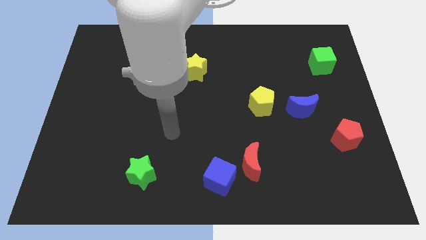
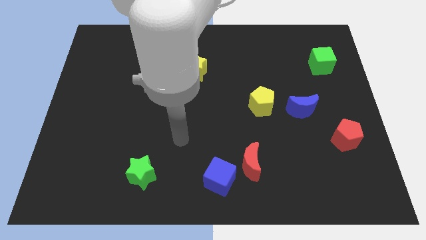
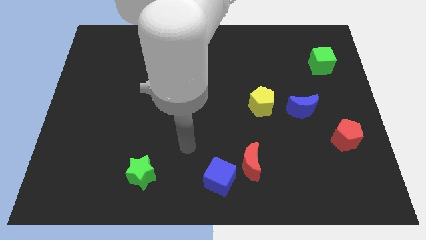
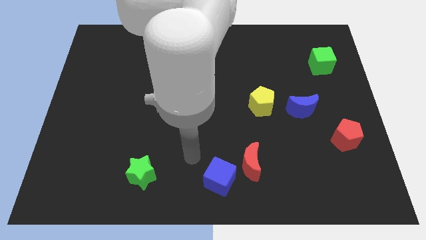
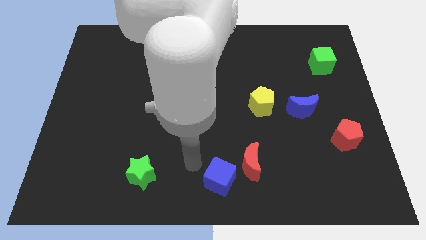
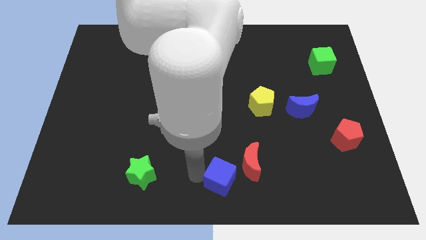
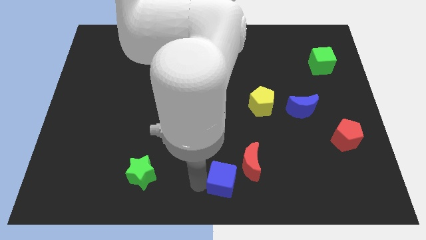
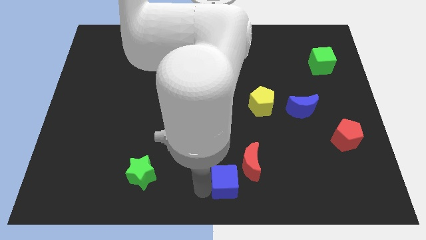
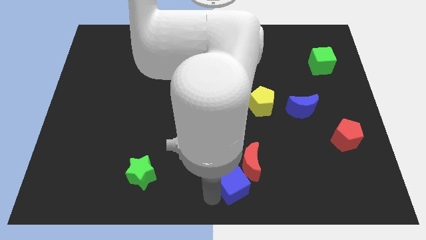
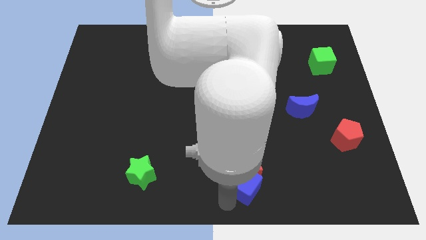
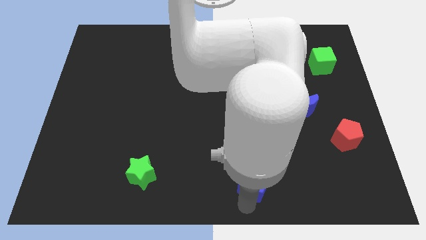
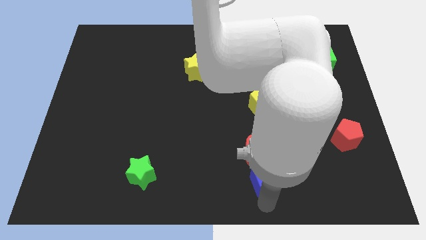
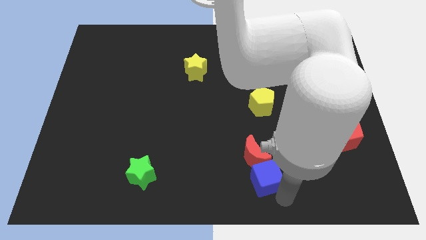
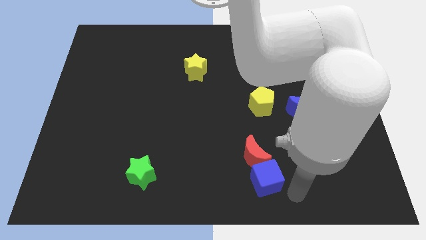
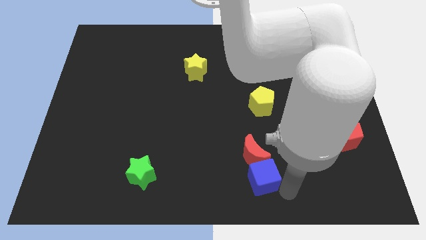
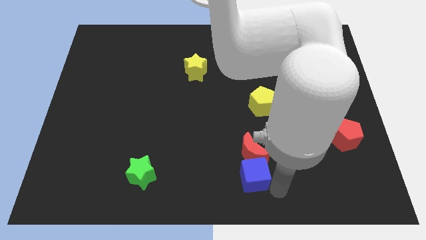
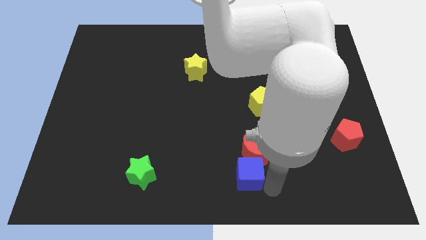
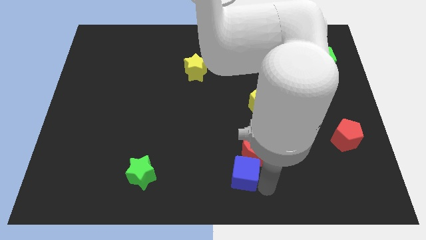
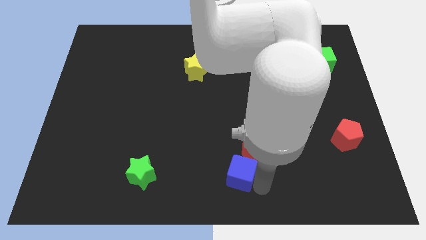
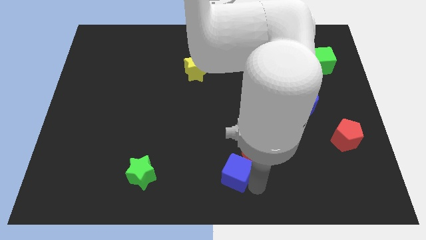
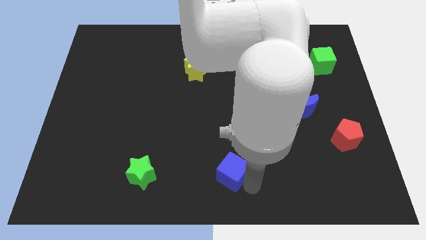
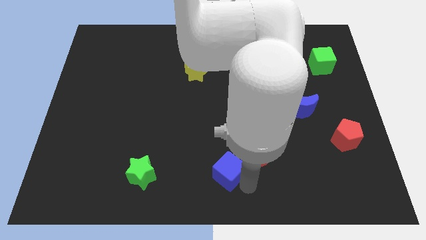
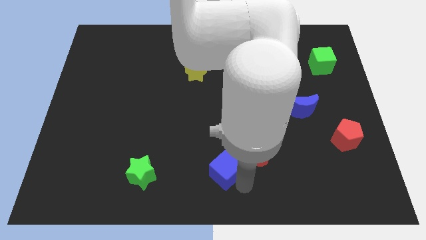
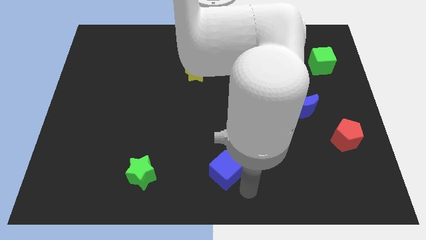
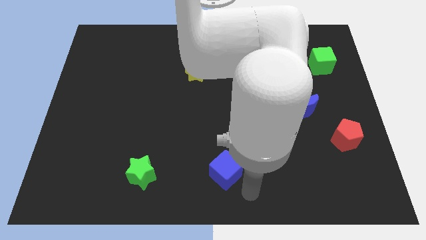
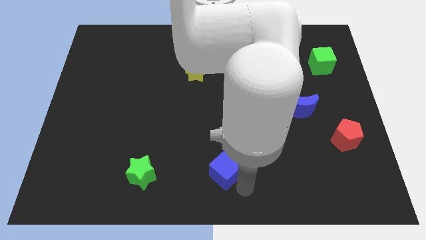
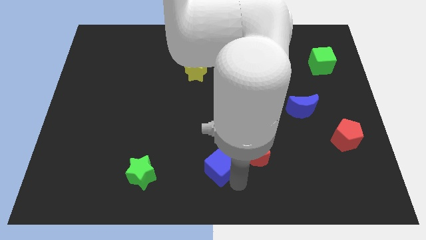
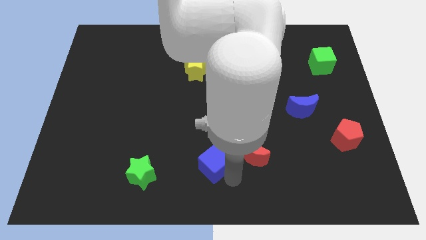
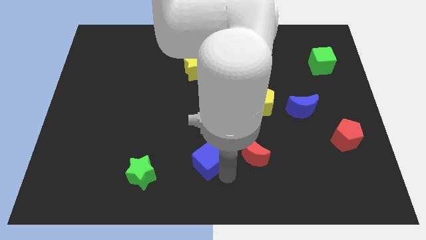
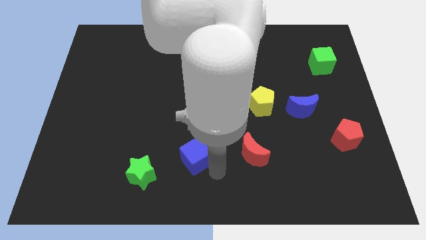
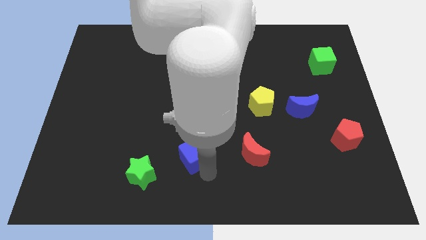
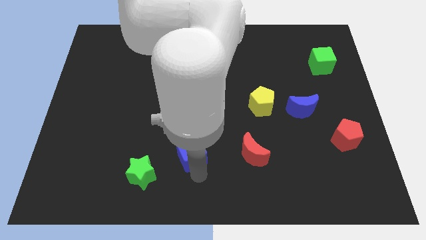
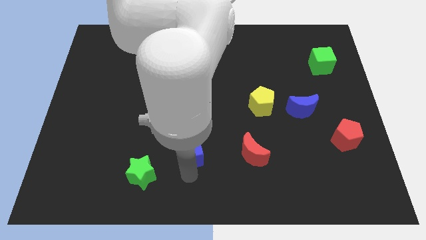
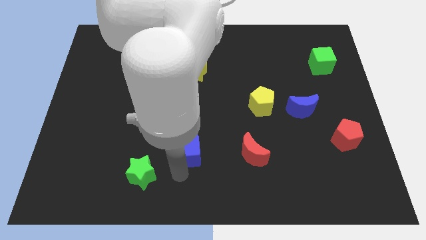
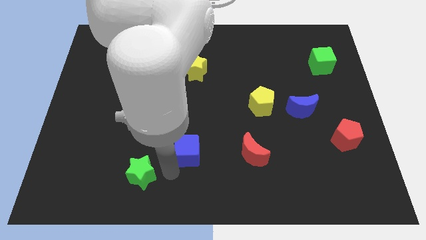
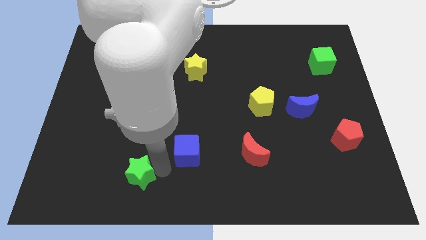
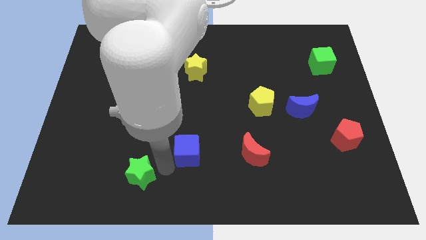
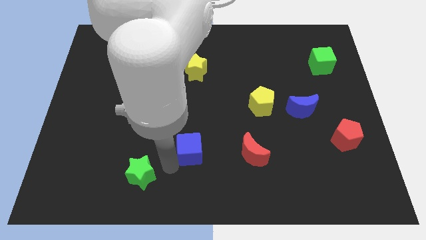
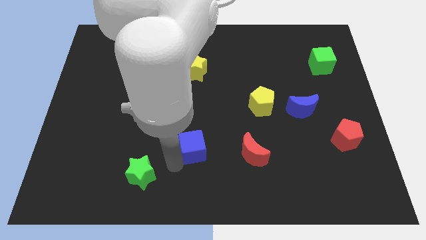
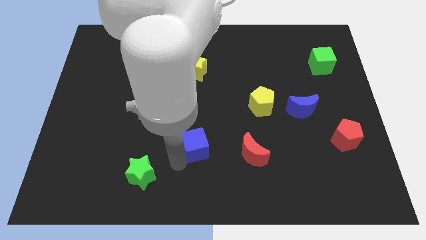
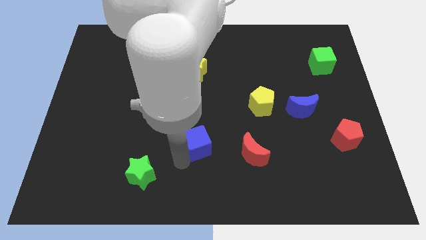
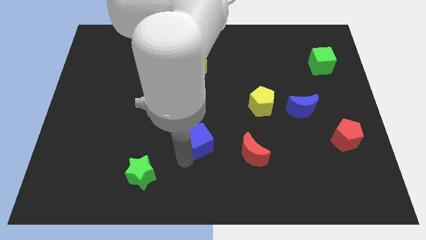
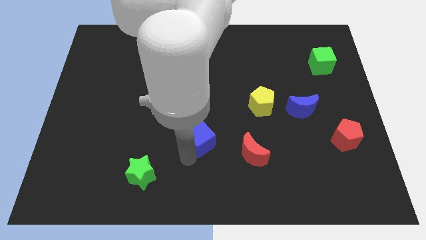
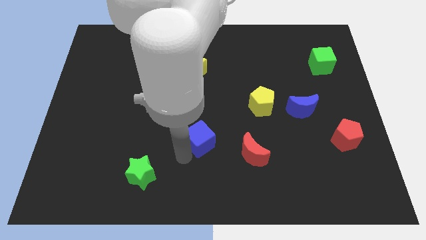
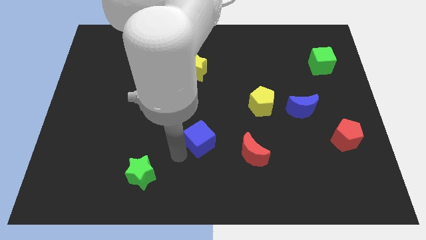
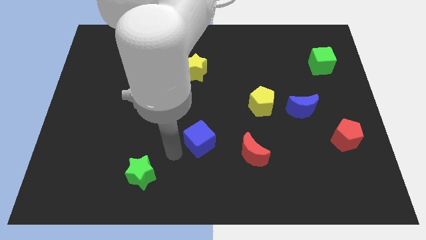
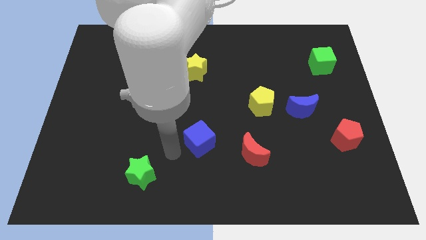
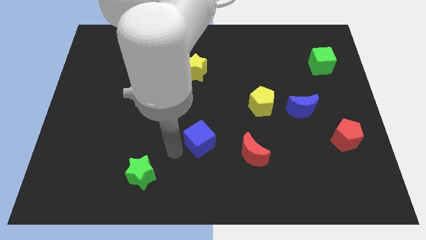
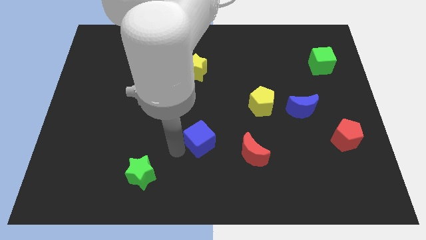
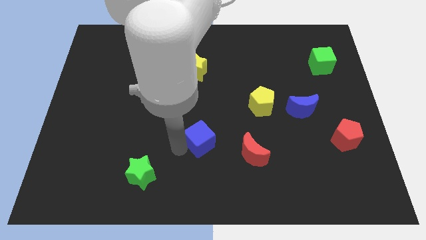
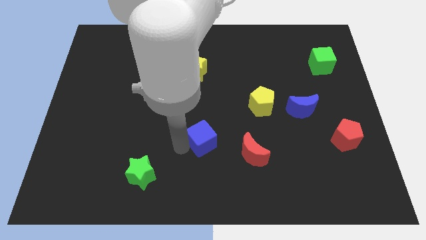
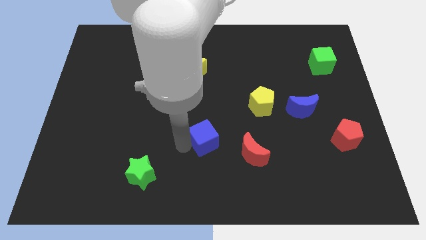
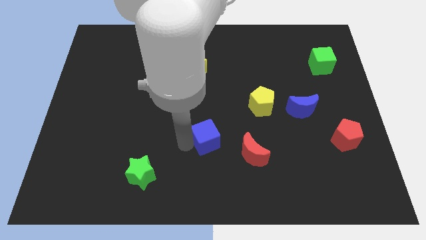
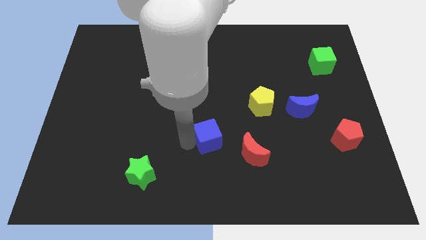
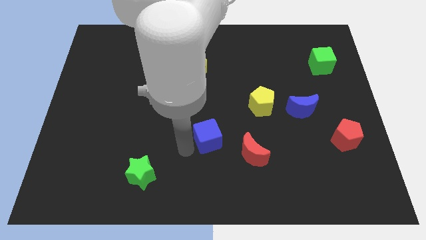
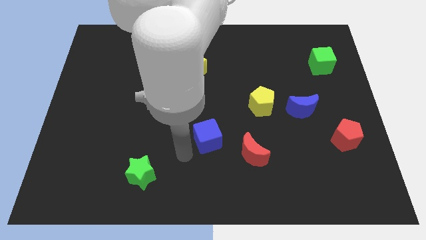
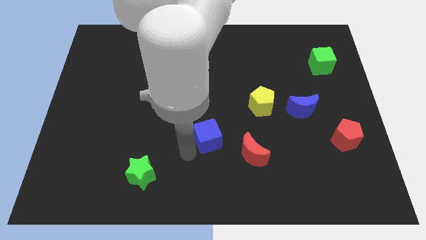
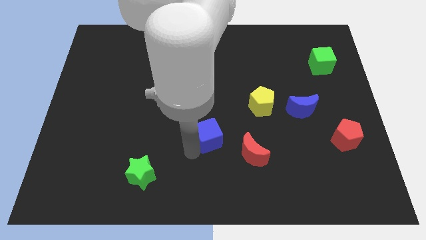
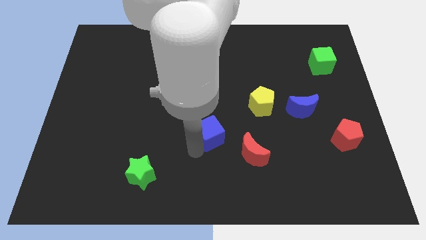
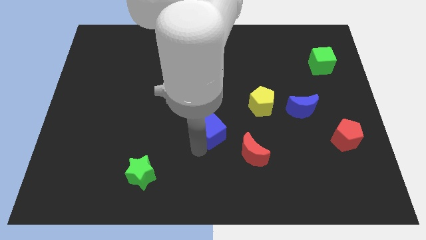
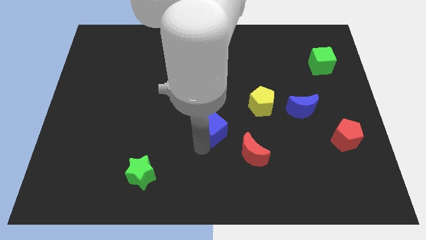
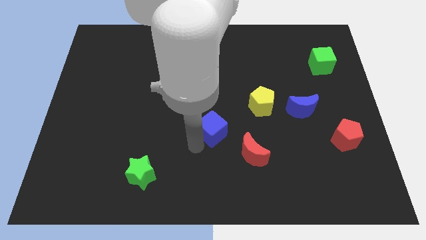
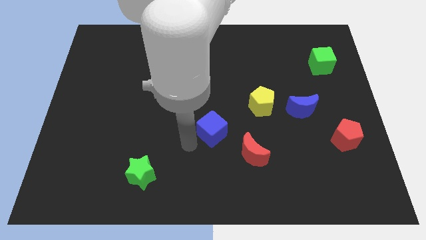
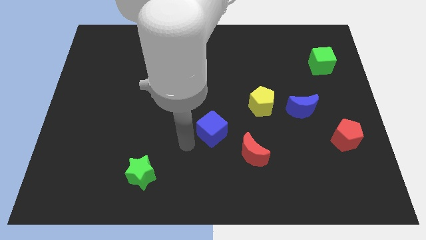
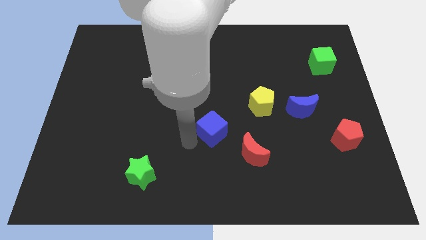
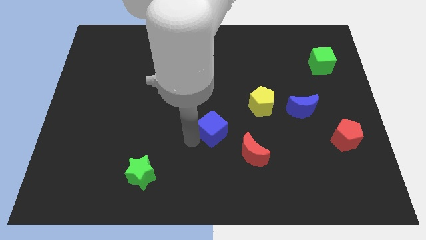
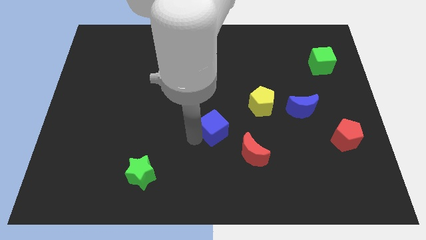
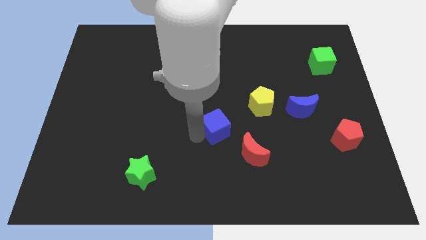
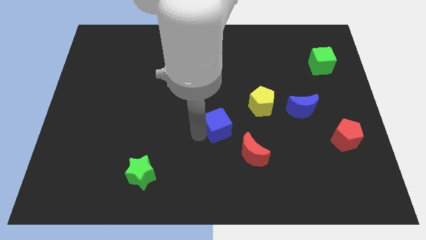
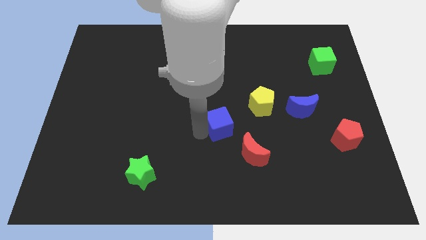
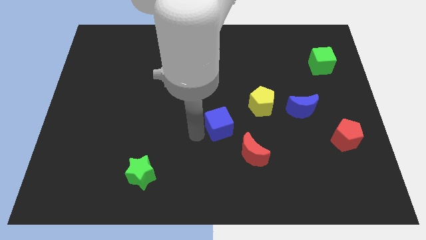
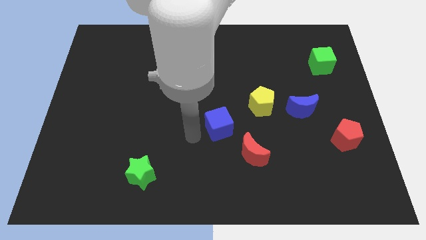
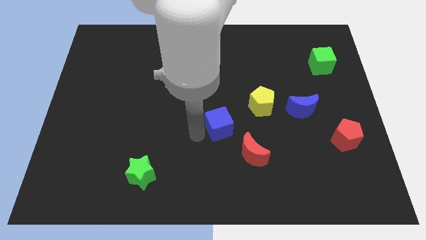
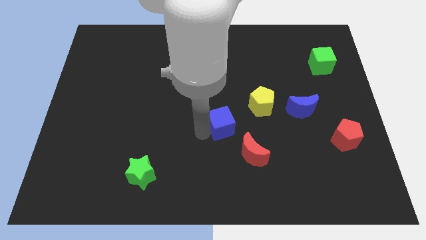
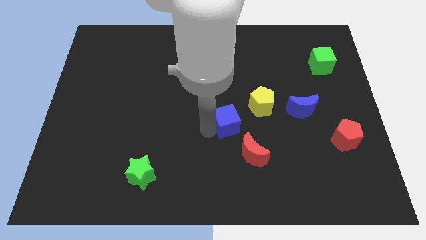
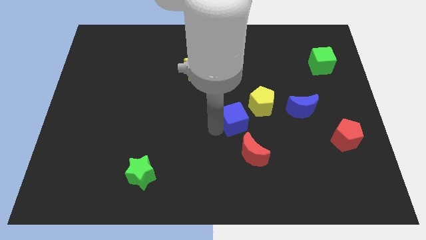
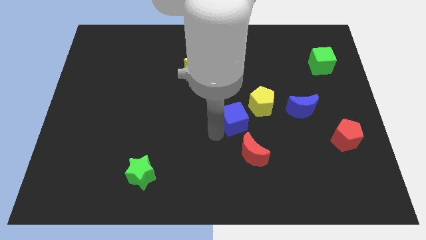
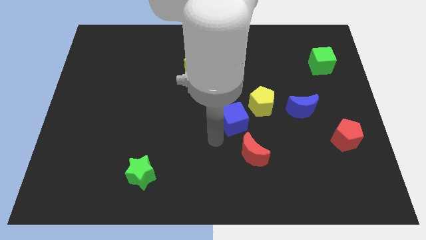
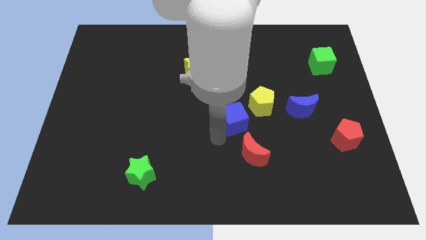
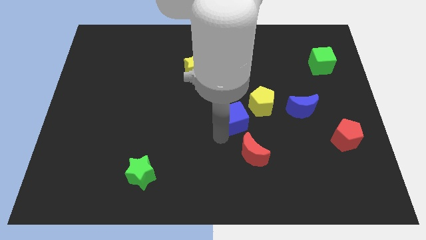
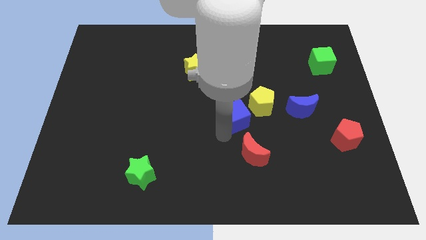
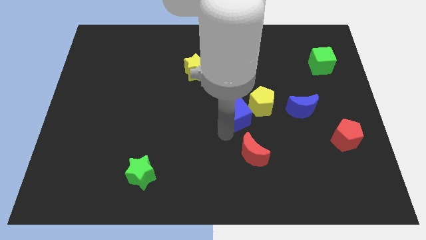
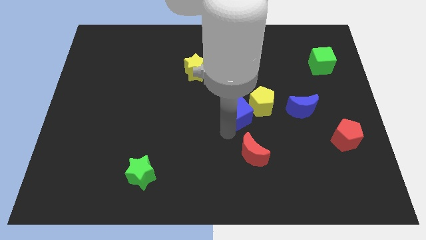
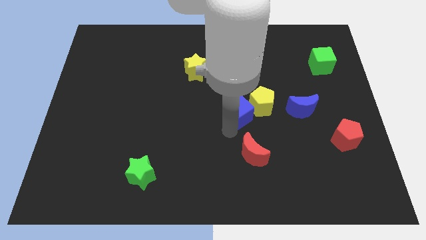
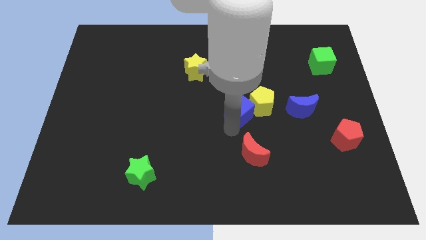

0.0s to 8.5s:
slide the blue cube to the yellow pentagon
